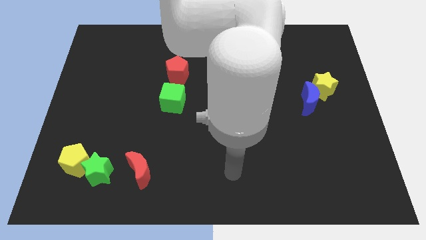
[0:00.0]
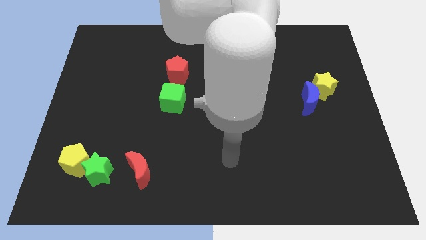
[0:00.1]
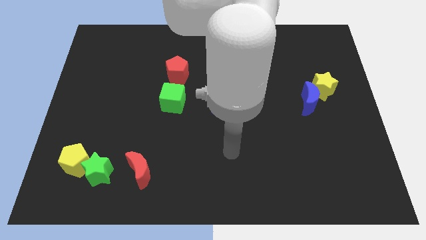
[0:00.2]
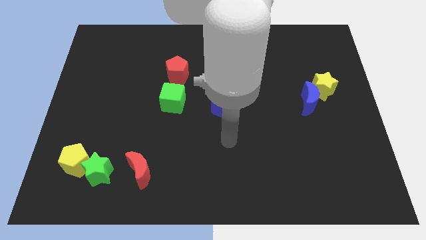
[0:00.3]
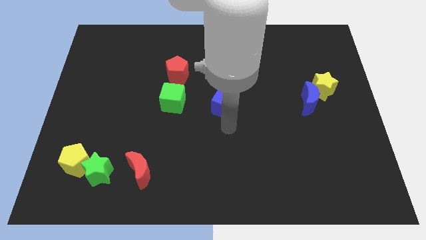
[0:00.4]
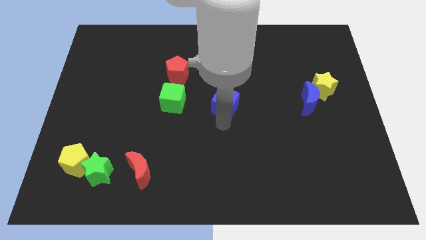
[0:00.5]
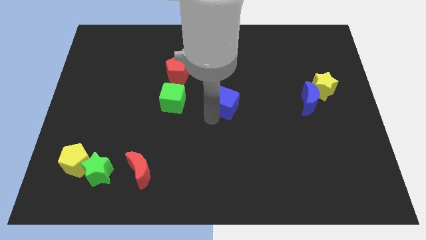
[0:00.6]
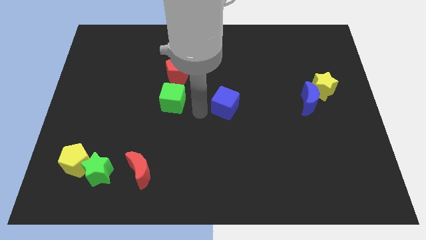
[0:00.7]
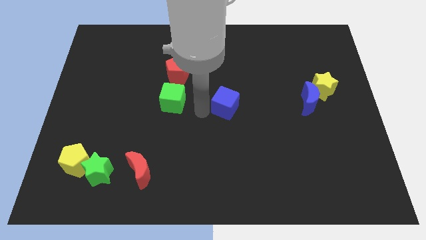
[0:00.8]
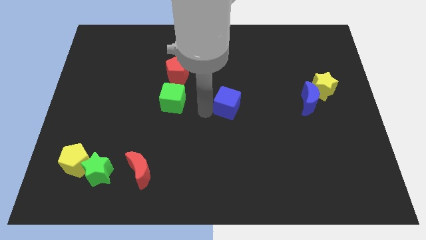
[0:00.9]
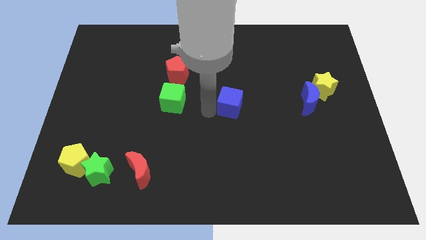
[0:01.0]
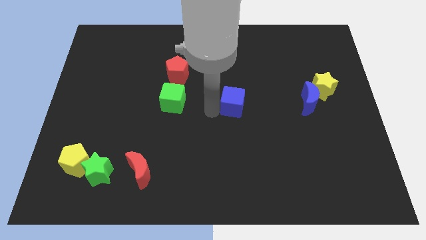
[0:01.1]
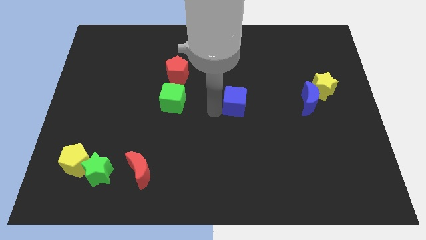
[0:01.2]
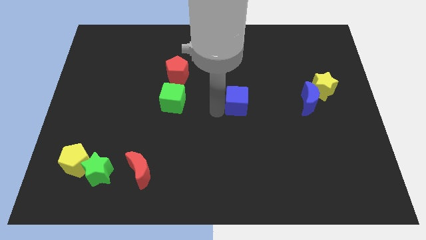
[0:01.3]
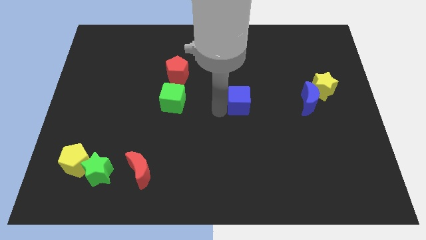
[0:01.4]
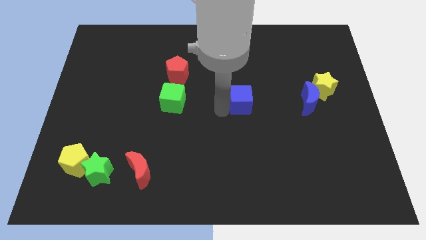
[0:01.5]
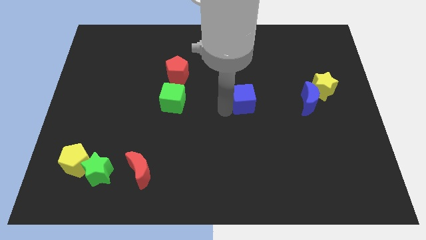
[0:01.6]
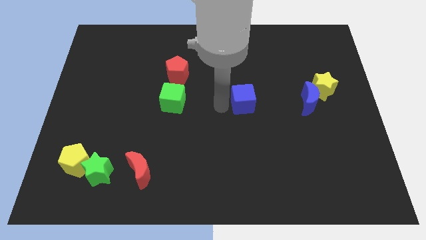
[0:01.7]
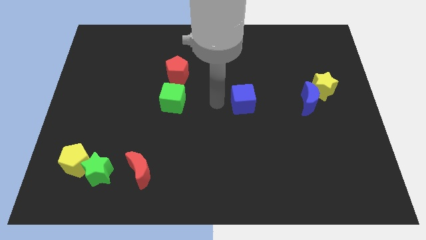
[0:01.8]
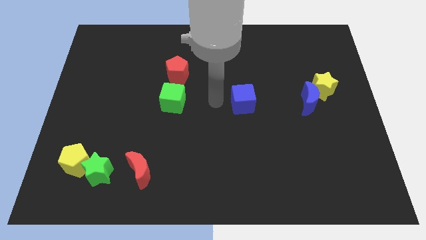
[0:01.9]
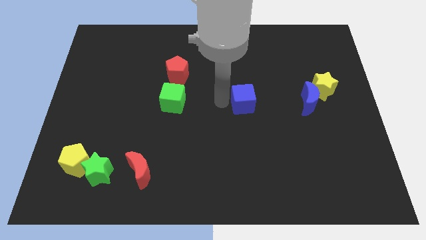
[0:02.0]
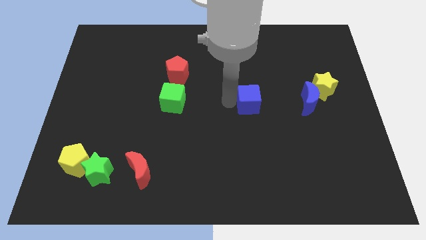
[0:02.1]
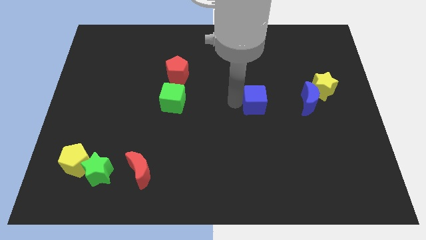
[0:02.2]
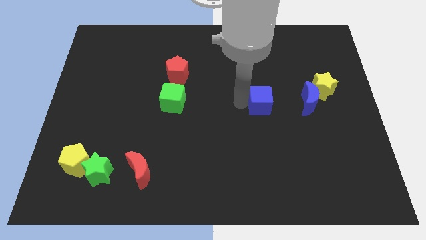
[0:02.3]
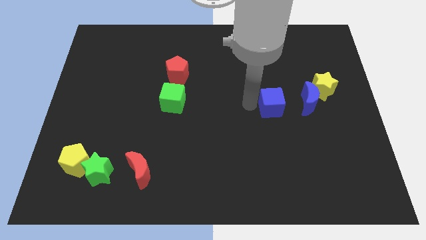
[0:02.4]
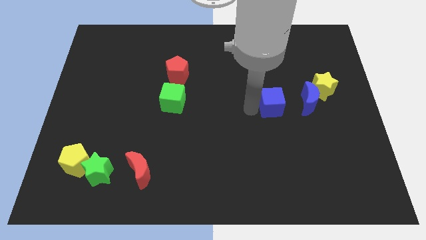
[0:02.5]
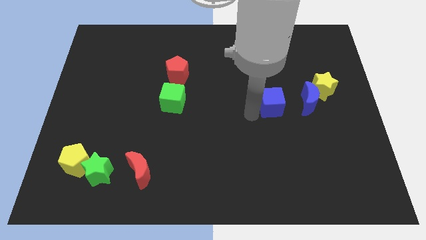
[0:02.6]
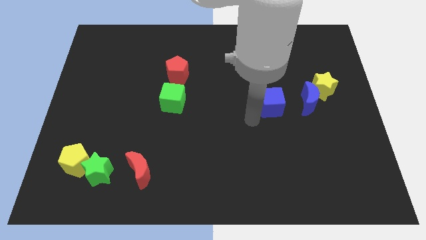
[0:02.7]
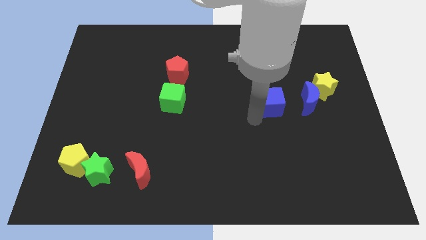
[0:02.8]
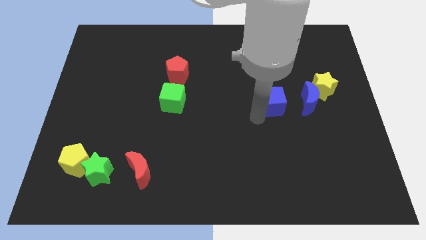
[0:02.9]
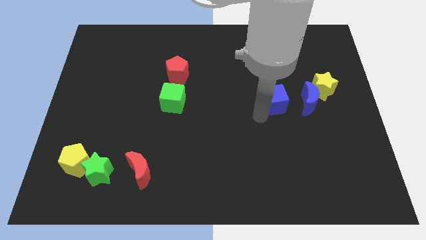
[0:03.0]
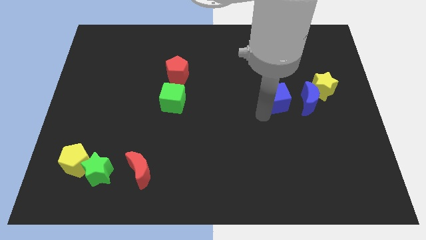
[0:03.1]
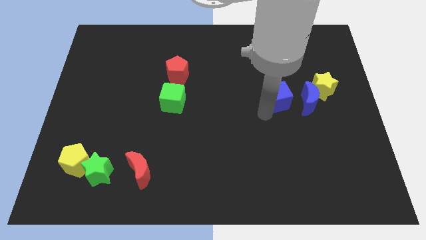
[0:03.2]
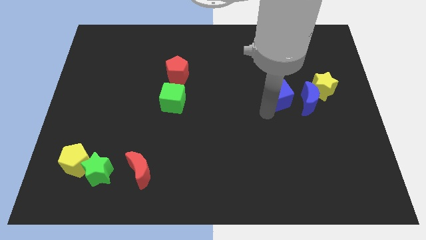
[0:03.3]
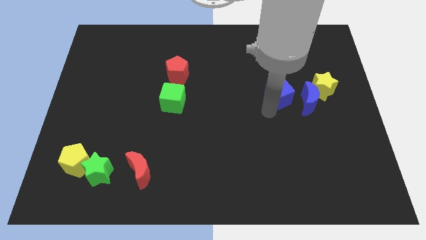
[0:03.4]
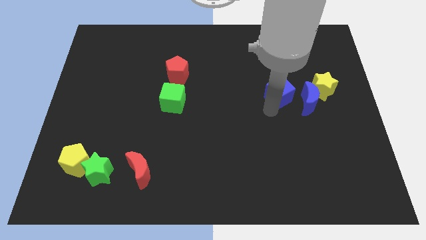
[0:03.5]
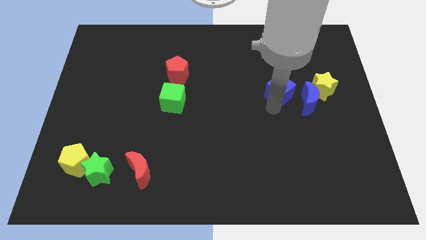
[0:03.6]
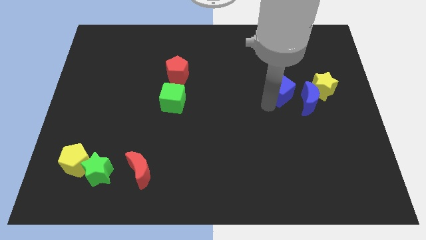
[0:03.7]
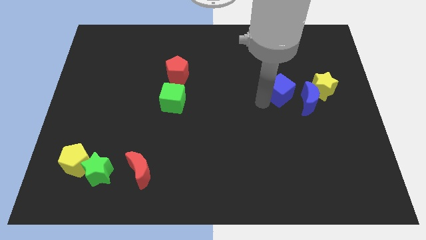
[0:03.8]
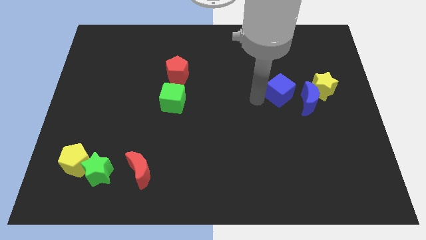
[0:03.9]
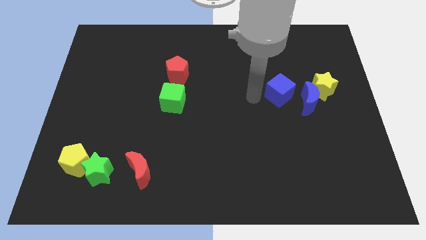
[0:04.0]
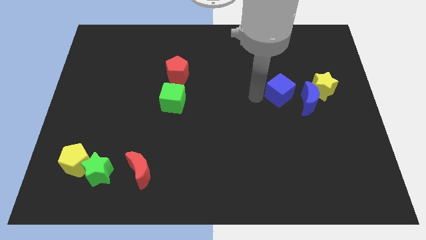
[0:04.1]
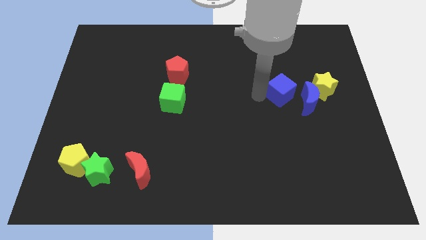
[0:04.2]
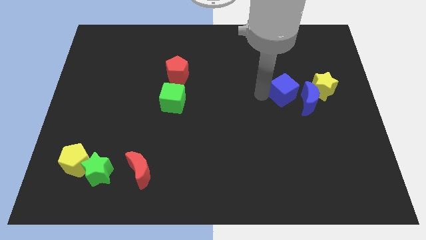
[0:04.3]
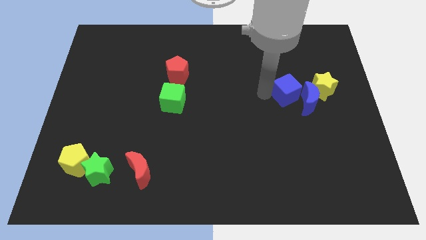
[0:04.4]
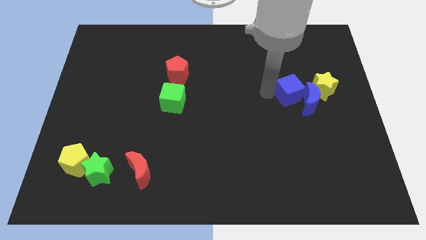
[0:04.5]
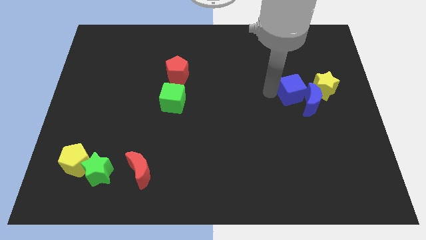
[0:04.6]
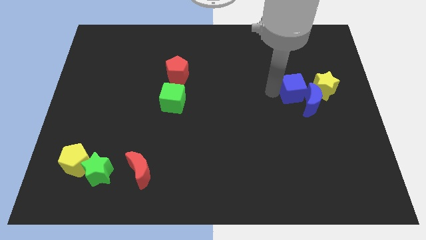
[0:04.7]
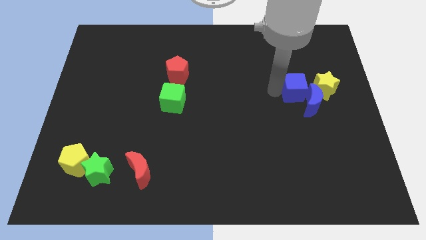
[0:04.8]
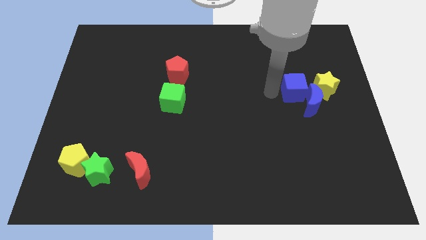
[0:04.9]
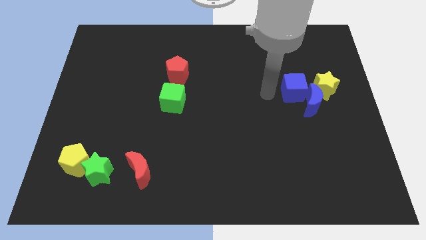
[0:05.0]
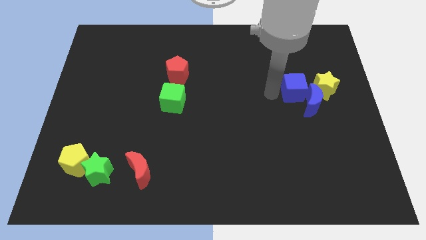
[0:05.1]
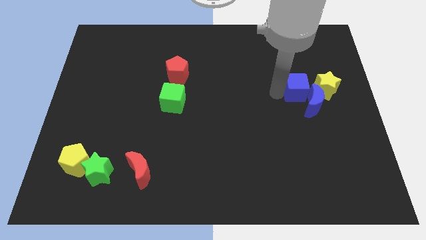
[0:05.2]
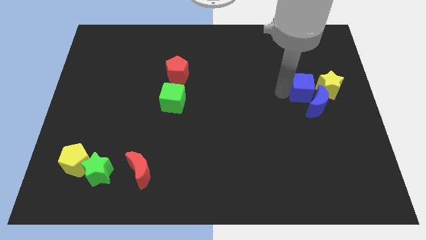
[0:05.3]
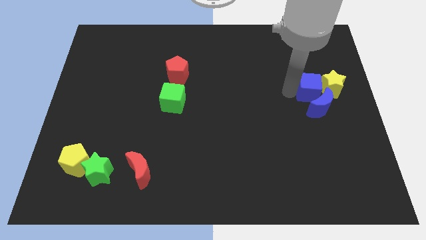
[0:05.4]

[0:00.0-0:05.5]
slide the blue cube next to the yellow star
